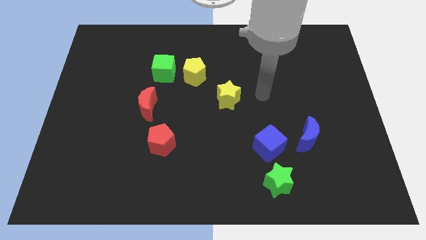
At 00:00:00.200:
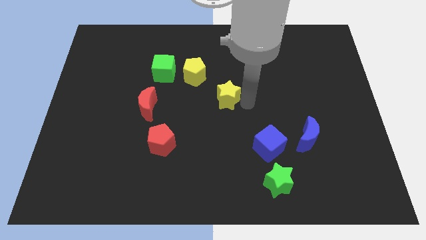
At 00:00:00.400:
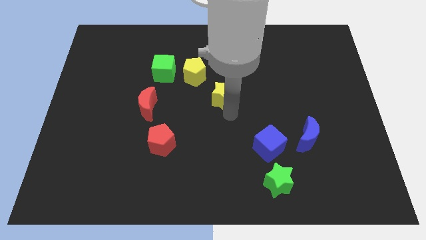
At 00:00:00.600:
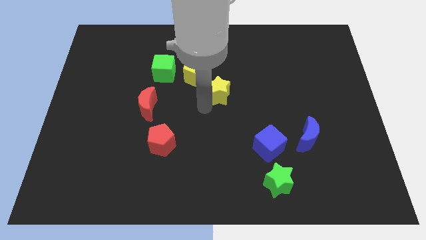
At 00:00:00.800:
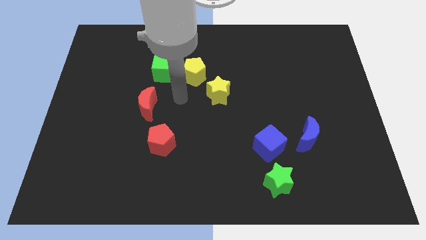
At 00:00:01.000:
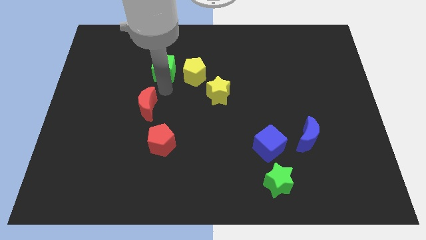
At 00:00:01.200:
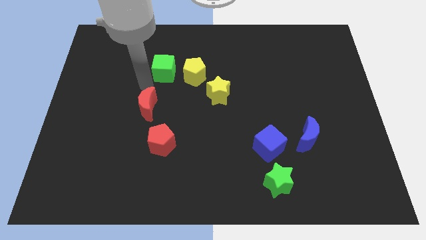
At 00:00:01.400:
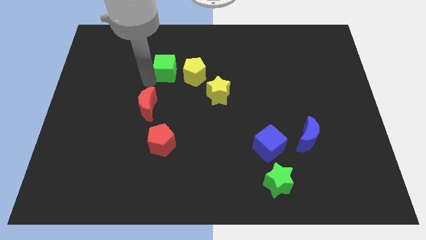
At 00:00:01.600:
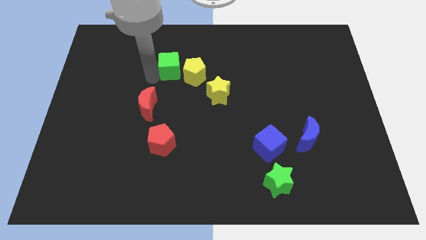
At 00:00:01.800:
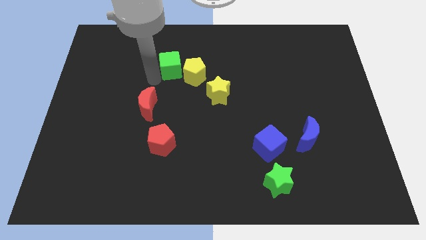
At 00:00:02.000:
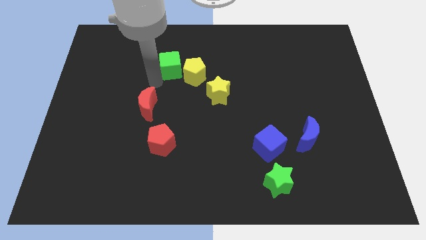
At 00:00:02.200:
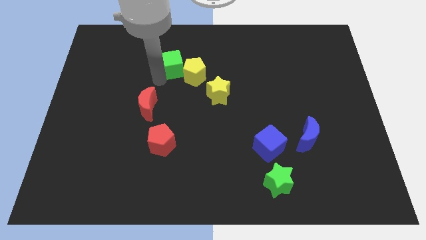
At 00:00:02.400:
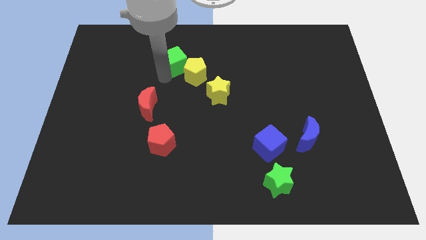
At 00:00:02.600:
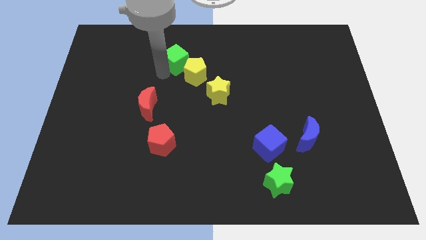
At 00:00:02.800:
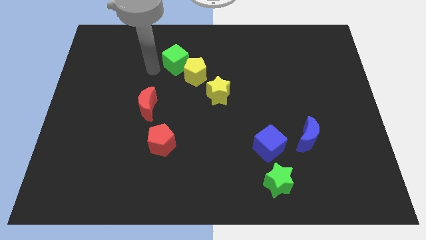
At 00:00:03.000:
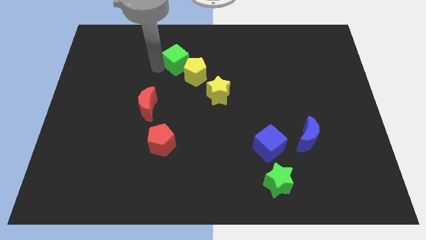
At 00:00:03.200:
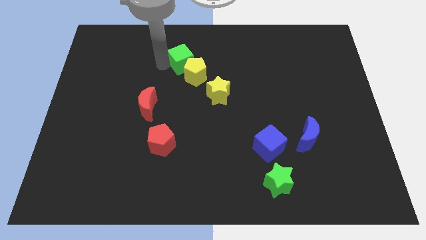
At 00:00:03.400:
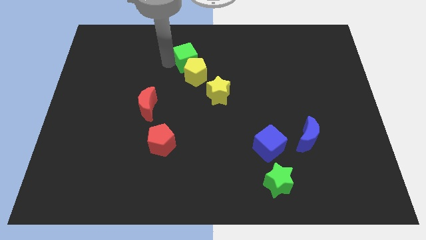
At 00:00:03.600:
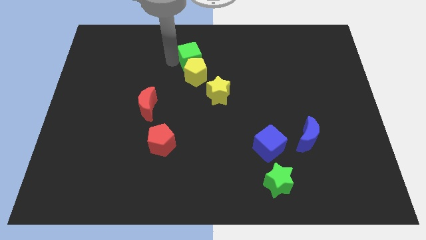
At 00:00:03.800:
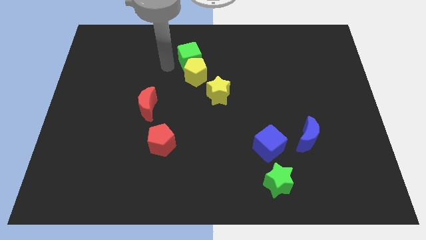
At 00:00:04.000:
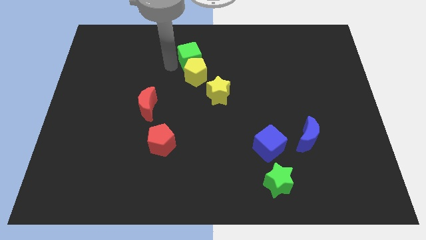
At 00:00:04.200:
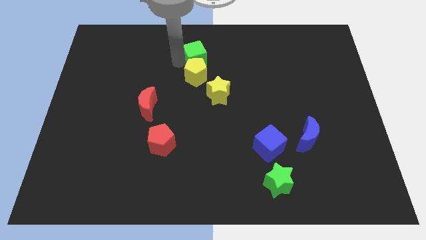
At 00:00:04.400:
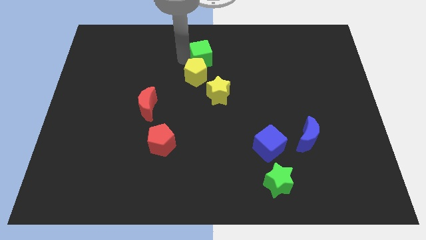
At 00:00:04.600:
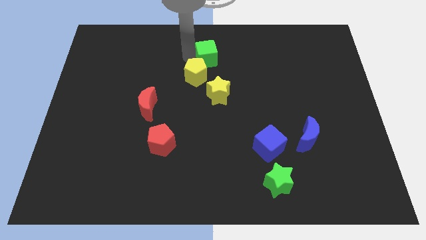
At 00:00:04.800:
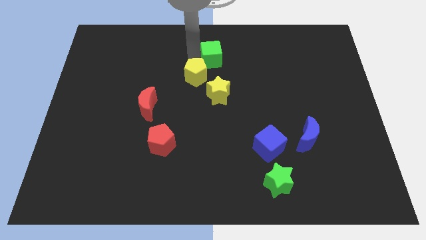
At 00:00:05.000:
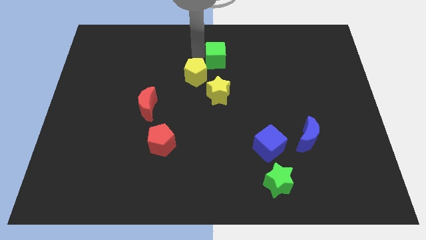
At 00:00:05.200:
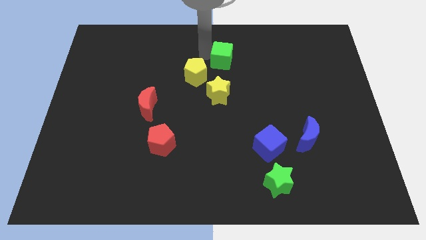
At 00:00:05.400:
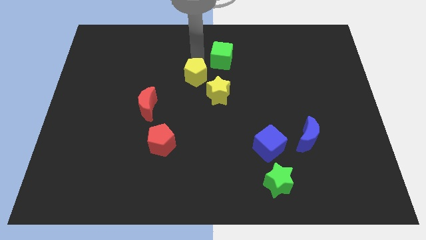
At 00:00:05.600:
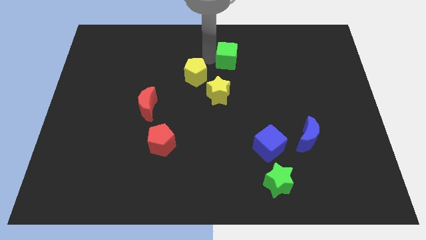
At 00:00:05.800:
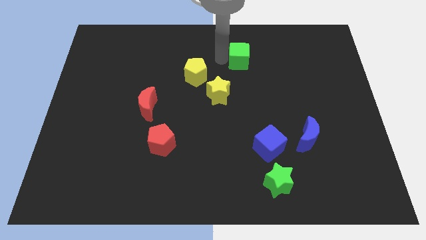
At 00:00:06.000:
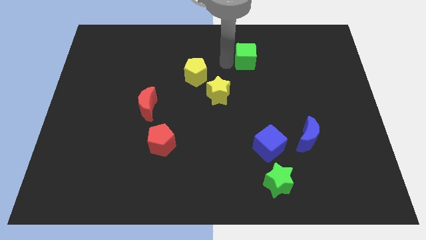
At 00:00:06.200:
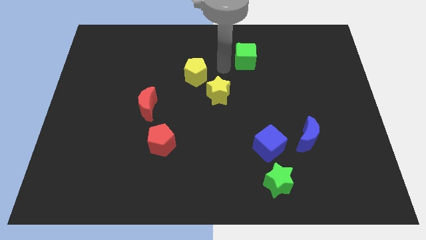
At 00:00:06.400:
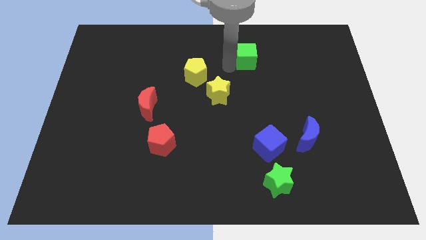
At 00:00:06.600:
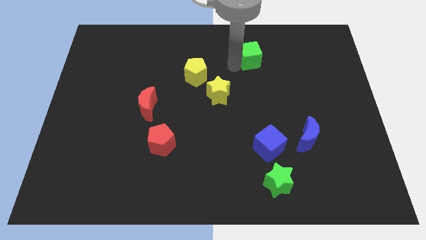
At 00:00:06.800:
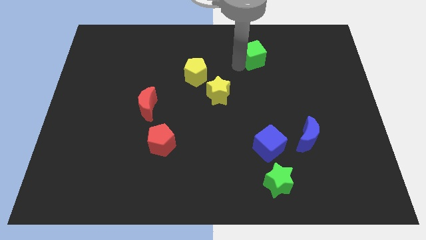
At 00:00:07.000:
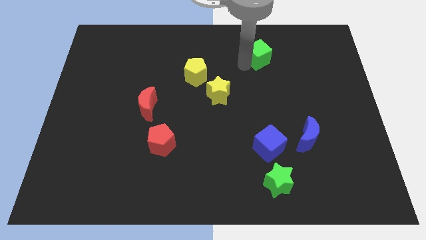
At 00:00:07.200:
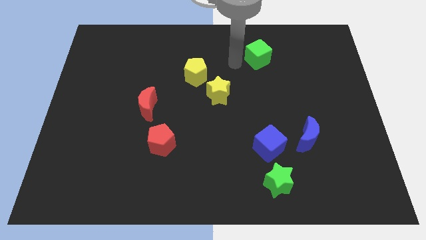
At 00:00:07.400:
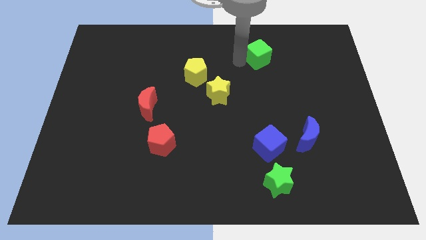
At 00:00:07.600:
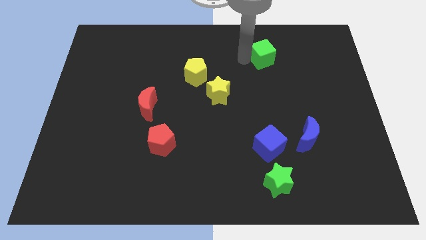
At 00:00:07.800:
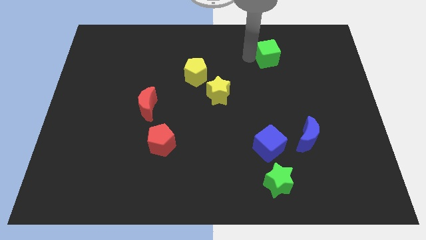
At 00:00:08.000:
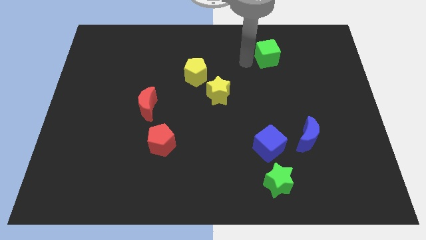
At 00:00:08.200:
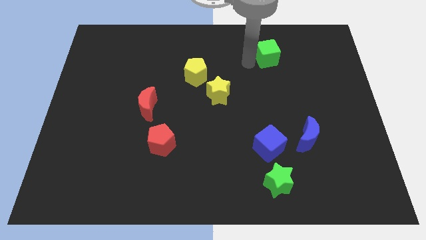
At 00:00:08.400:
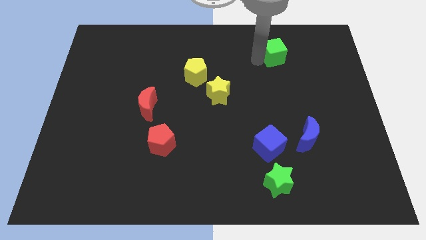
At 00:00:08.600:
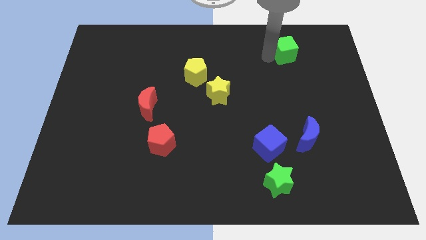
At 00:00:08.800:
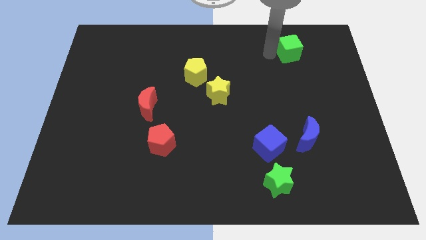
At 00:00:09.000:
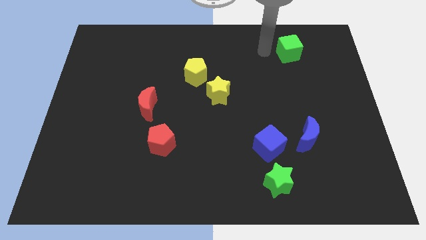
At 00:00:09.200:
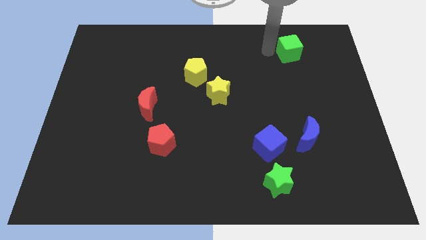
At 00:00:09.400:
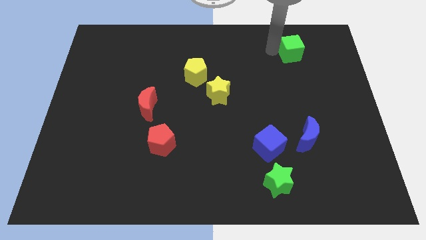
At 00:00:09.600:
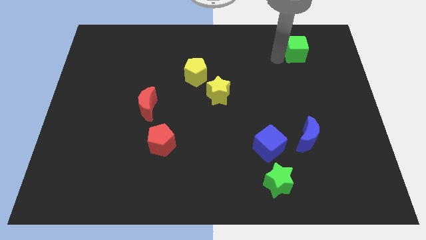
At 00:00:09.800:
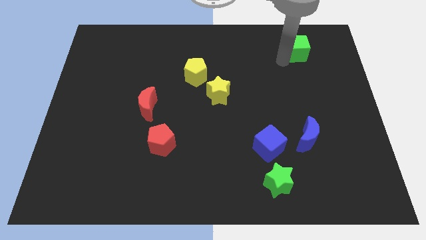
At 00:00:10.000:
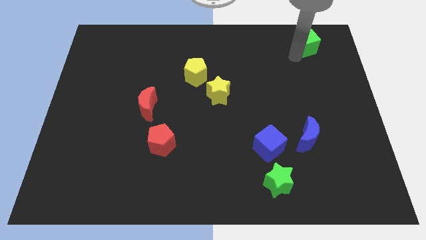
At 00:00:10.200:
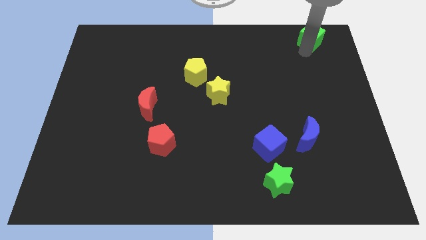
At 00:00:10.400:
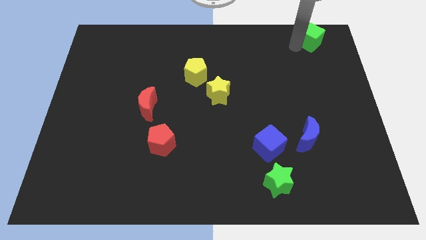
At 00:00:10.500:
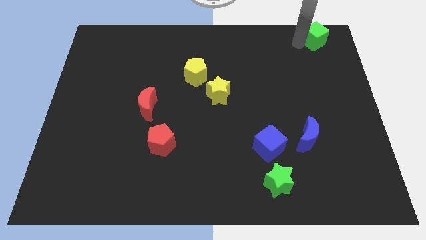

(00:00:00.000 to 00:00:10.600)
move the green cube to the top right

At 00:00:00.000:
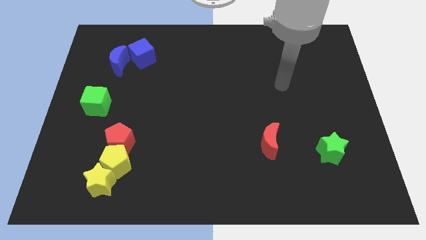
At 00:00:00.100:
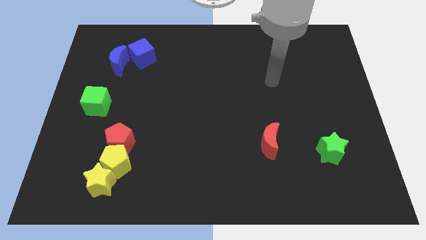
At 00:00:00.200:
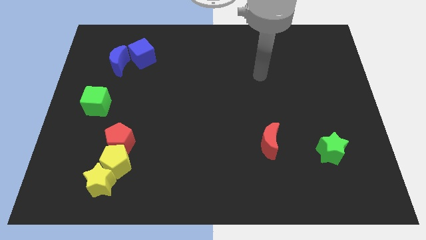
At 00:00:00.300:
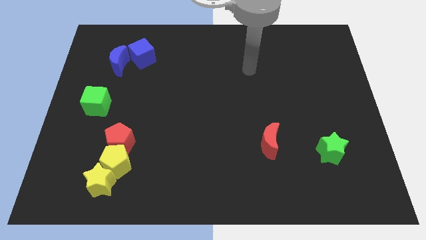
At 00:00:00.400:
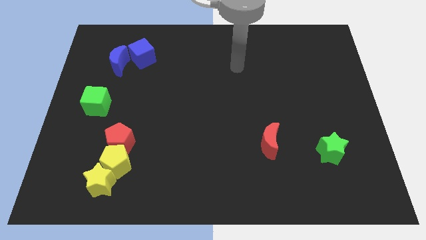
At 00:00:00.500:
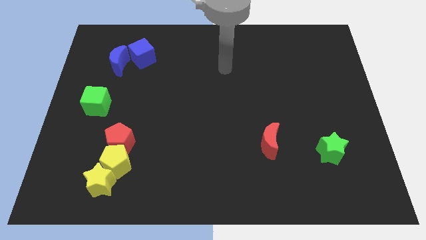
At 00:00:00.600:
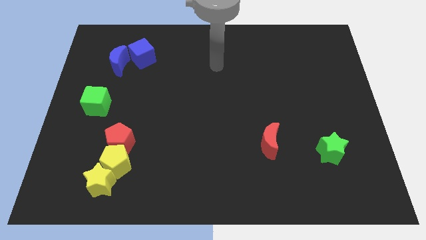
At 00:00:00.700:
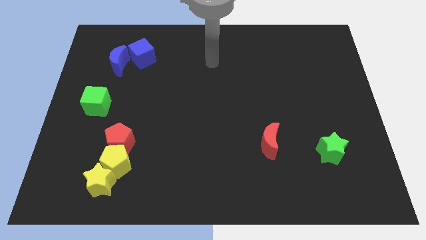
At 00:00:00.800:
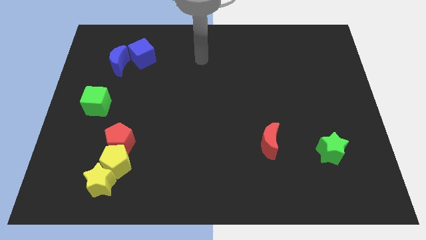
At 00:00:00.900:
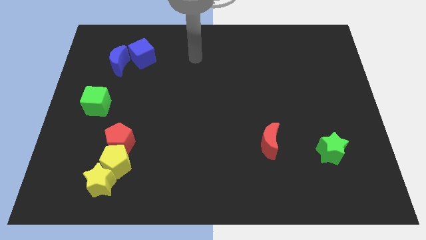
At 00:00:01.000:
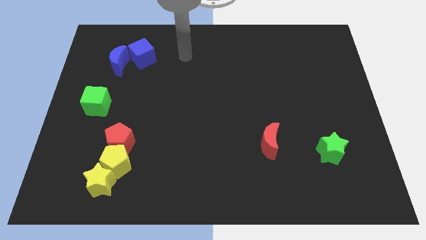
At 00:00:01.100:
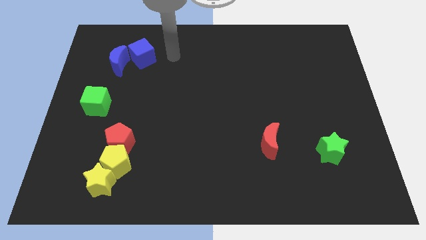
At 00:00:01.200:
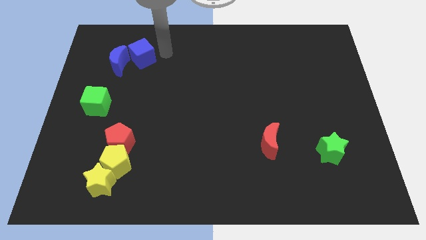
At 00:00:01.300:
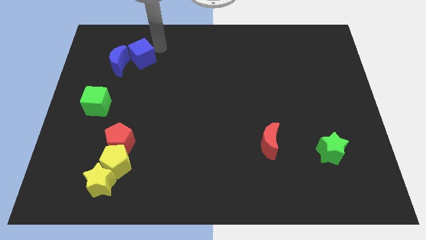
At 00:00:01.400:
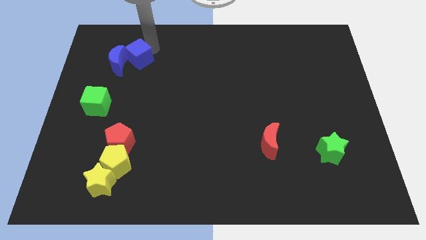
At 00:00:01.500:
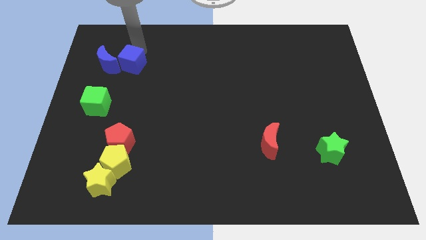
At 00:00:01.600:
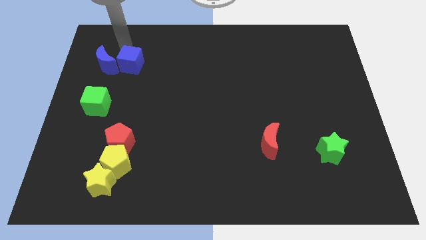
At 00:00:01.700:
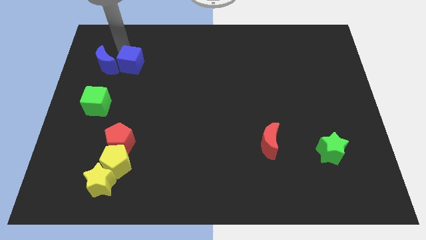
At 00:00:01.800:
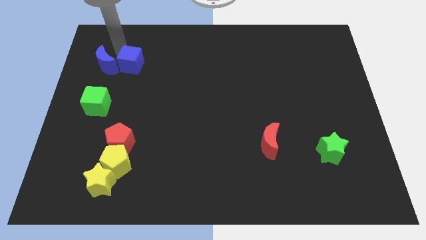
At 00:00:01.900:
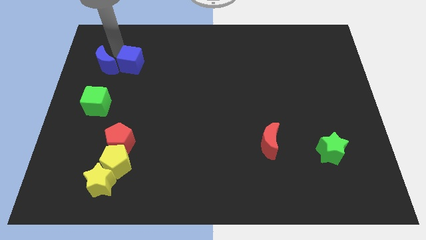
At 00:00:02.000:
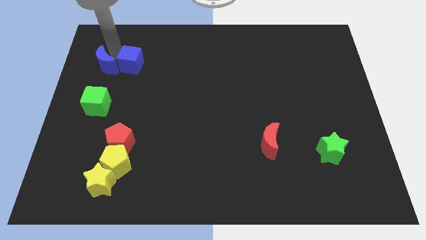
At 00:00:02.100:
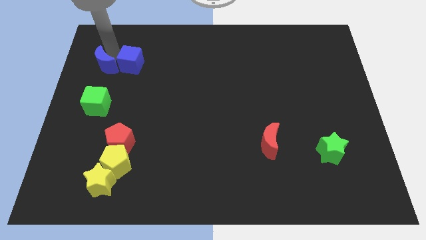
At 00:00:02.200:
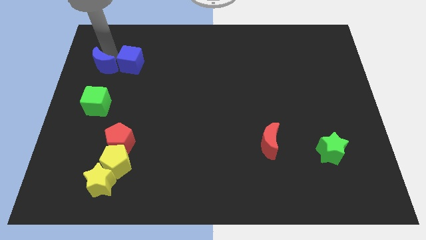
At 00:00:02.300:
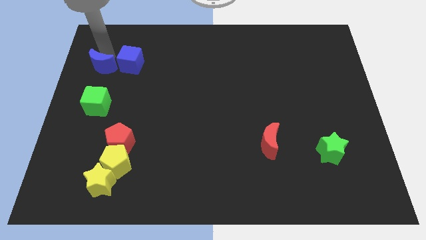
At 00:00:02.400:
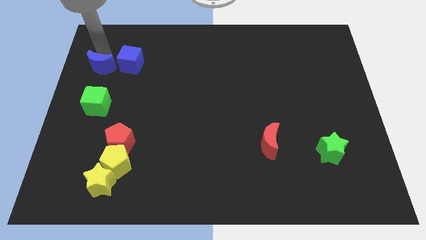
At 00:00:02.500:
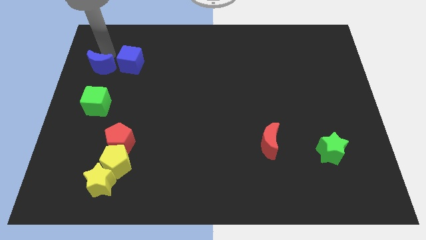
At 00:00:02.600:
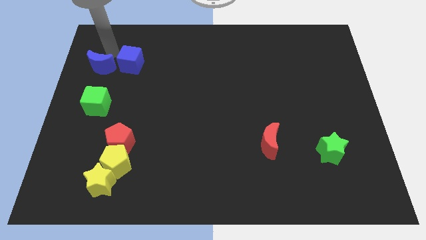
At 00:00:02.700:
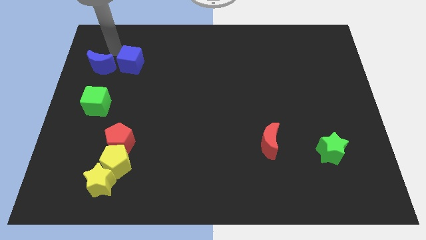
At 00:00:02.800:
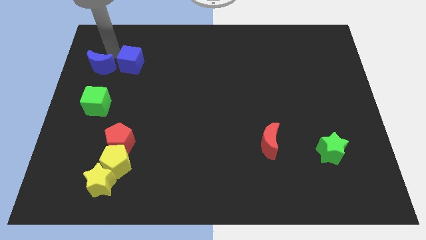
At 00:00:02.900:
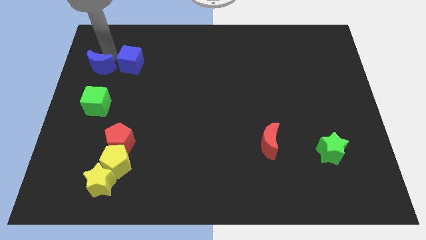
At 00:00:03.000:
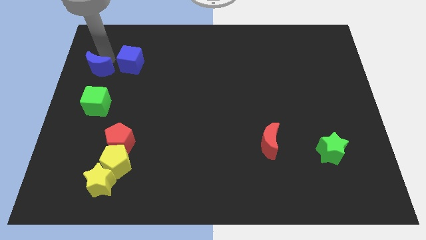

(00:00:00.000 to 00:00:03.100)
move the blue moon to the left side
